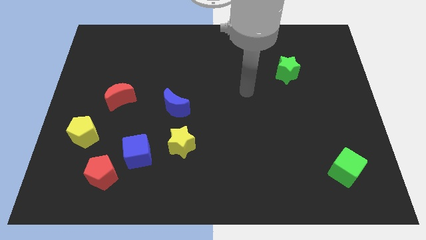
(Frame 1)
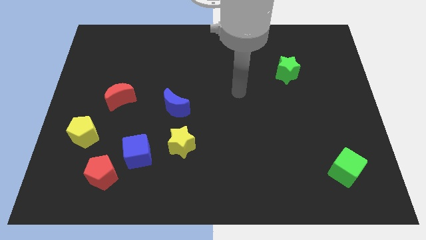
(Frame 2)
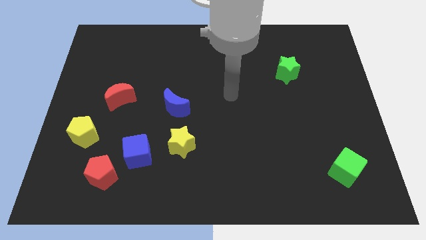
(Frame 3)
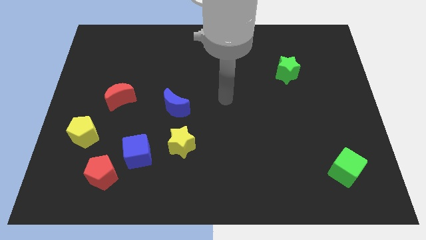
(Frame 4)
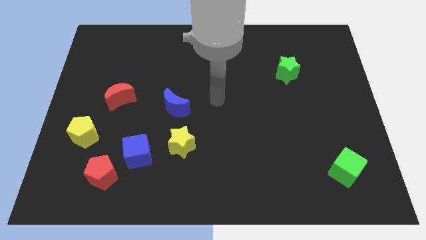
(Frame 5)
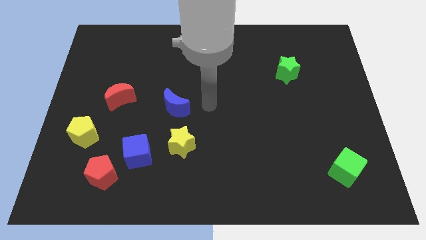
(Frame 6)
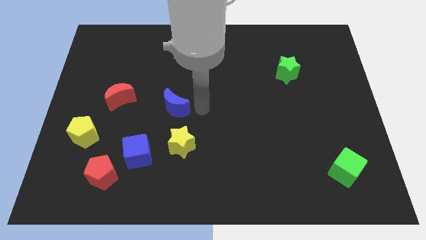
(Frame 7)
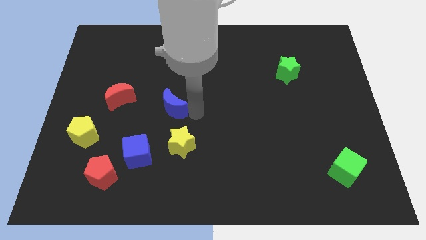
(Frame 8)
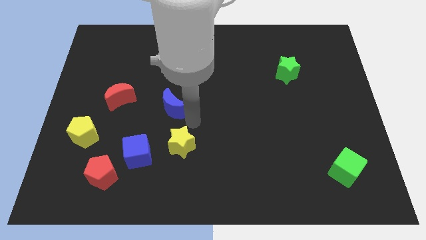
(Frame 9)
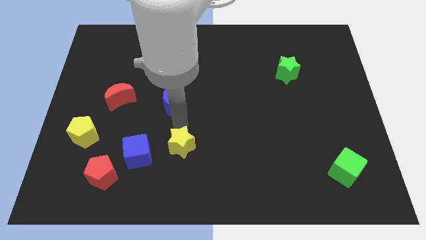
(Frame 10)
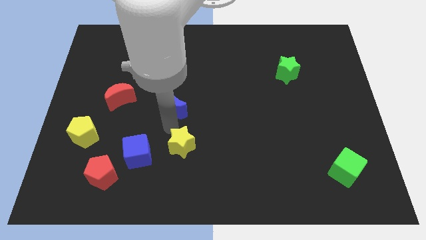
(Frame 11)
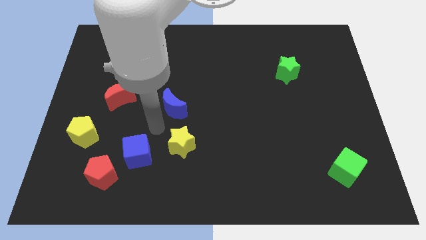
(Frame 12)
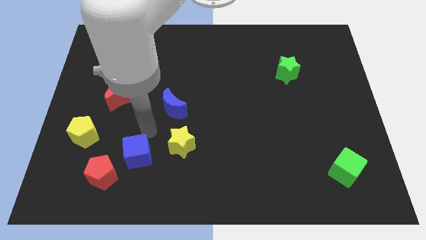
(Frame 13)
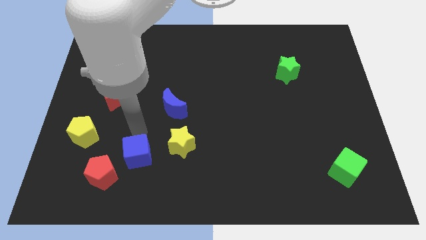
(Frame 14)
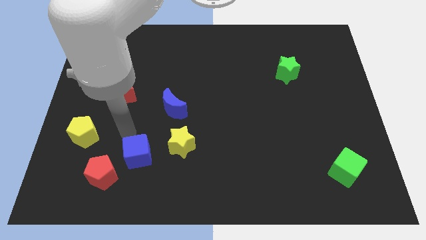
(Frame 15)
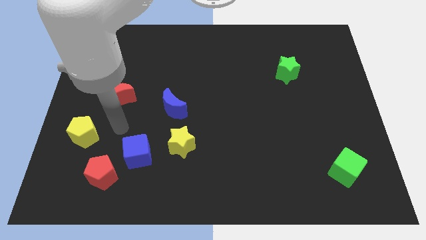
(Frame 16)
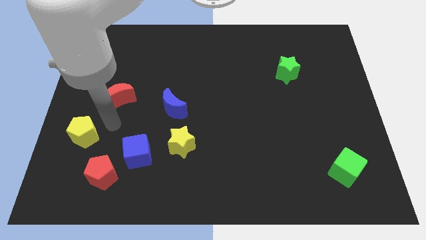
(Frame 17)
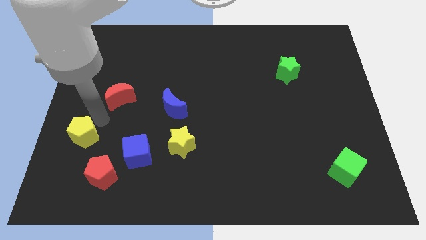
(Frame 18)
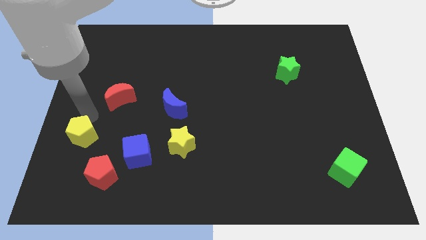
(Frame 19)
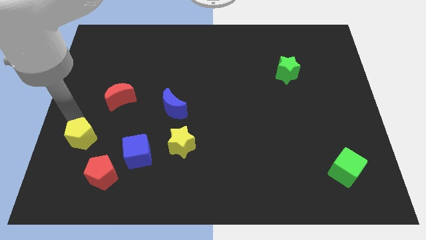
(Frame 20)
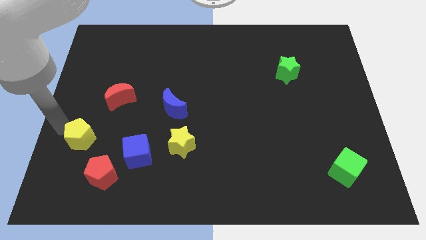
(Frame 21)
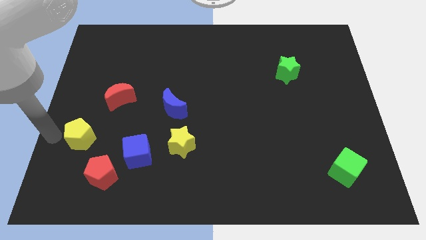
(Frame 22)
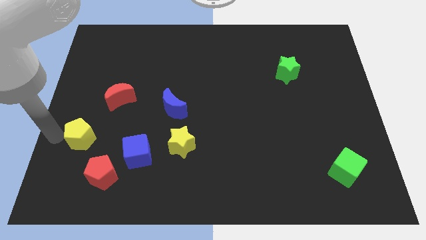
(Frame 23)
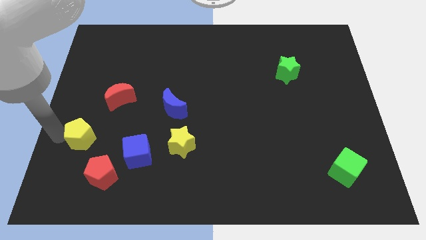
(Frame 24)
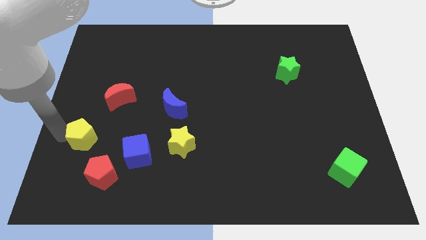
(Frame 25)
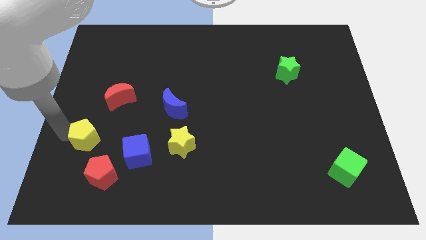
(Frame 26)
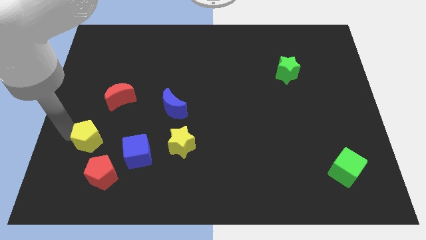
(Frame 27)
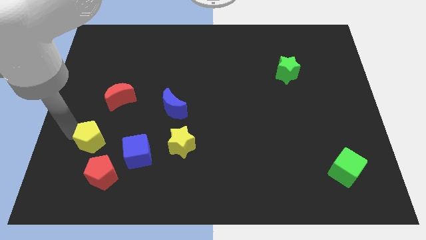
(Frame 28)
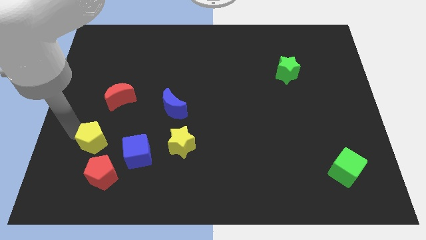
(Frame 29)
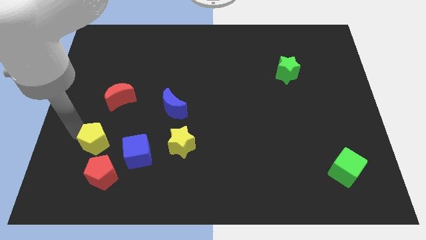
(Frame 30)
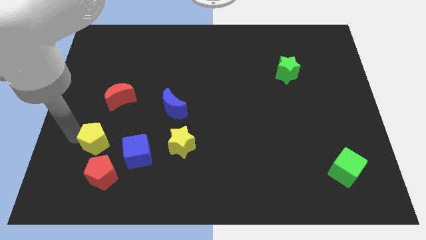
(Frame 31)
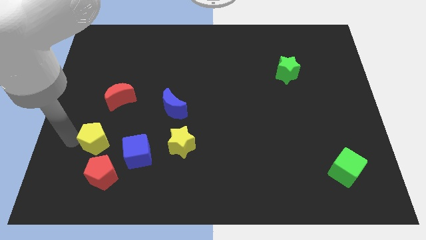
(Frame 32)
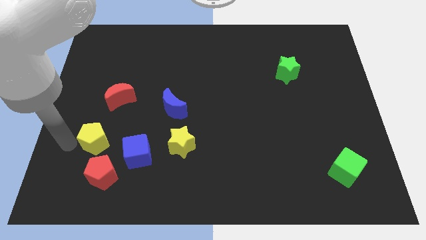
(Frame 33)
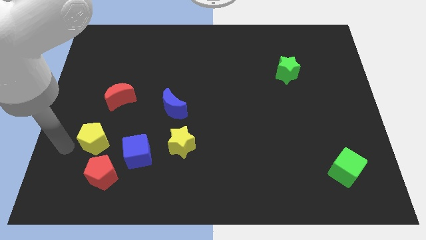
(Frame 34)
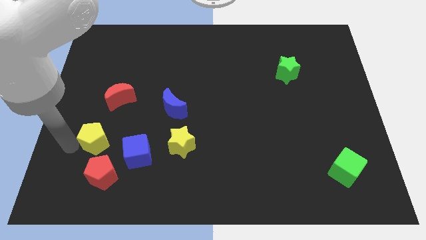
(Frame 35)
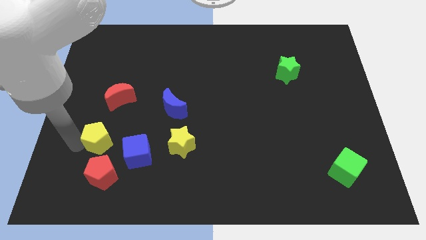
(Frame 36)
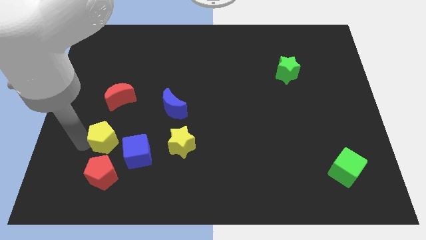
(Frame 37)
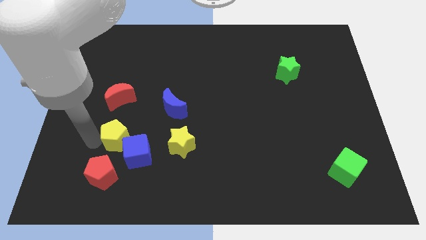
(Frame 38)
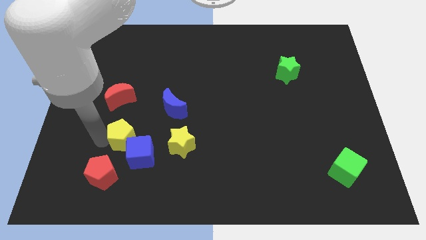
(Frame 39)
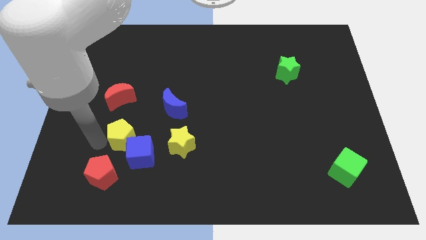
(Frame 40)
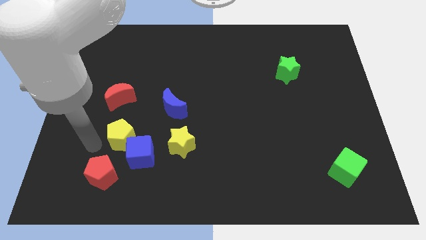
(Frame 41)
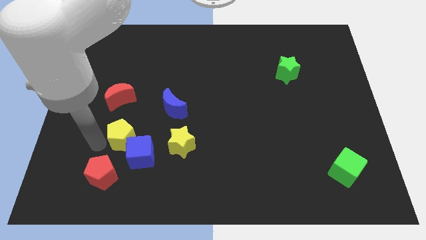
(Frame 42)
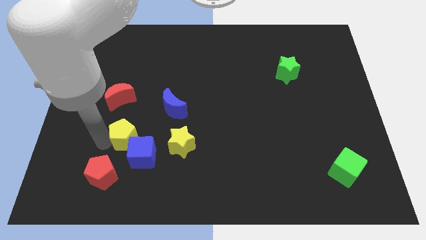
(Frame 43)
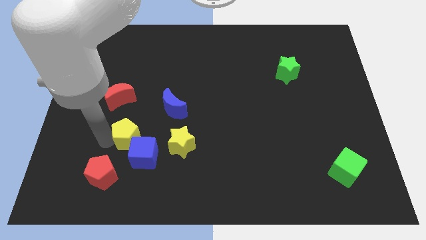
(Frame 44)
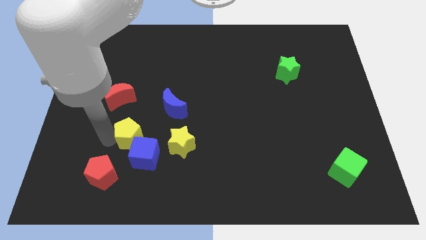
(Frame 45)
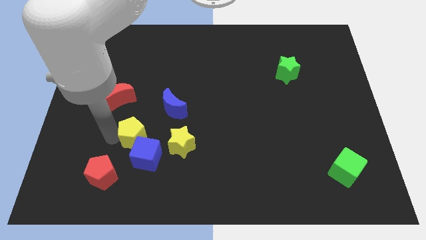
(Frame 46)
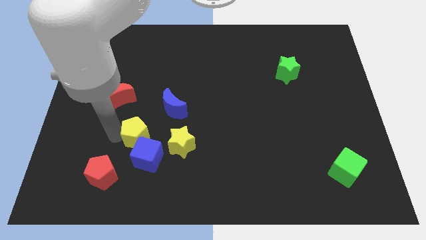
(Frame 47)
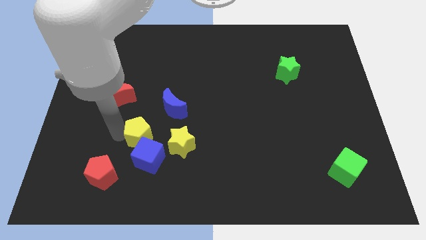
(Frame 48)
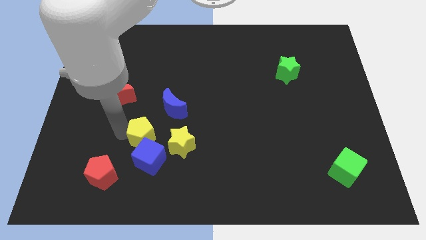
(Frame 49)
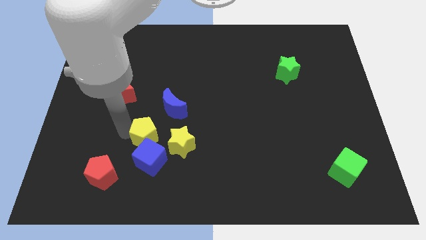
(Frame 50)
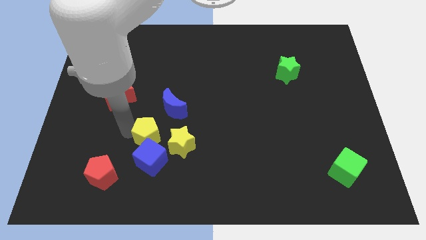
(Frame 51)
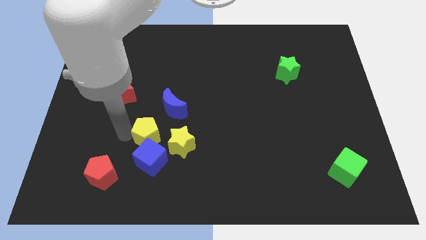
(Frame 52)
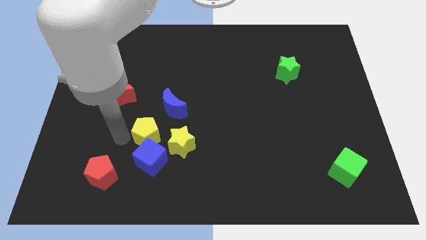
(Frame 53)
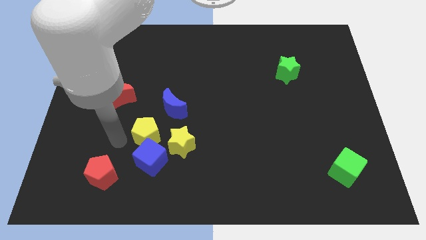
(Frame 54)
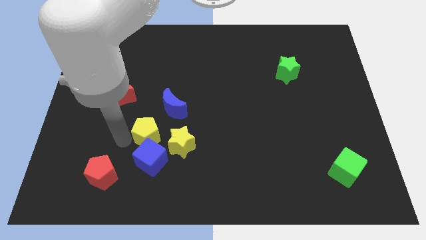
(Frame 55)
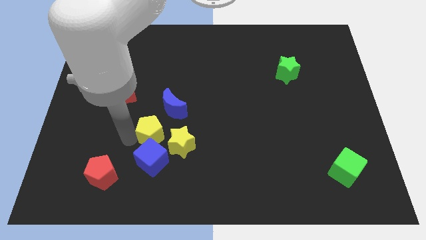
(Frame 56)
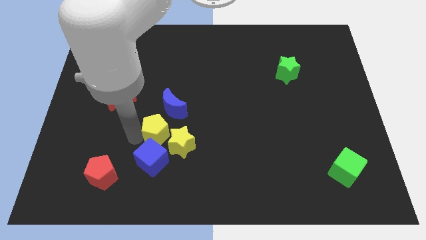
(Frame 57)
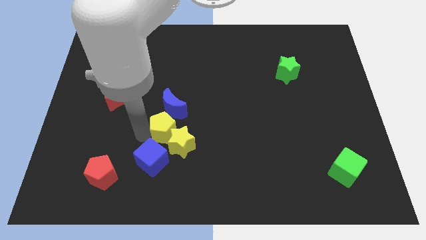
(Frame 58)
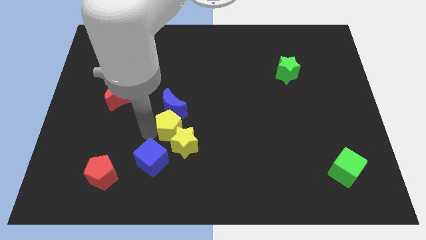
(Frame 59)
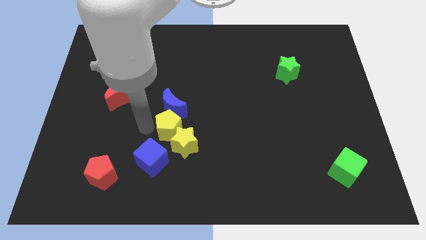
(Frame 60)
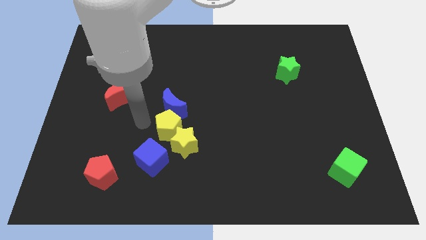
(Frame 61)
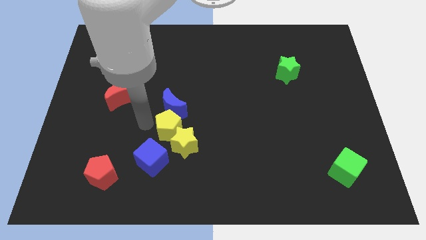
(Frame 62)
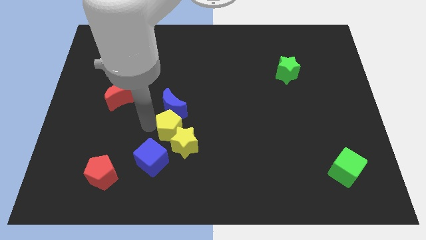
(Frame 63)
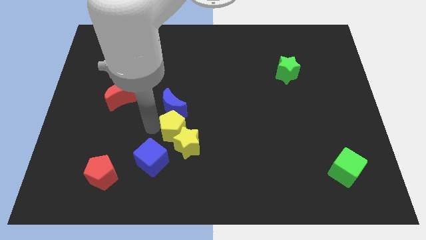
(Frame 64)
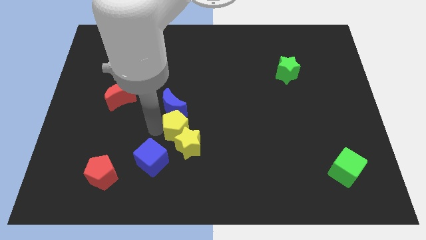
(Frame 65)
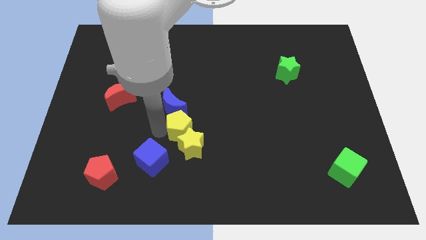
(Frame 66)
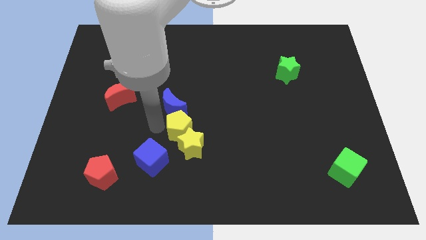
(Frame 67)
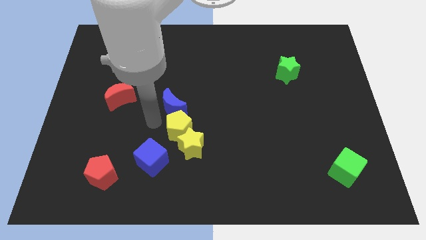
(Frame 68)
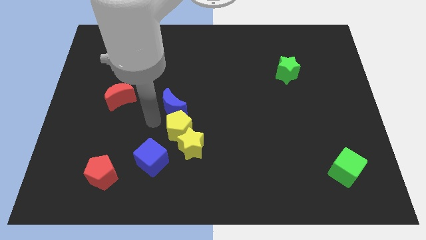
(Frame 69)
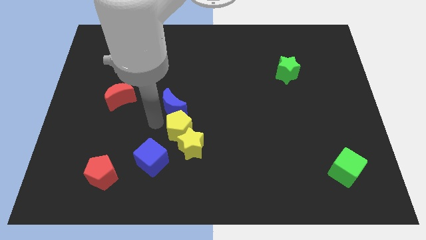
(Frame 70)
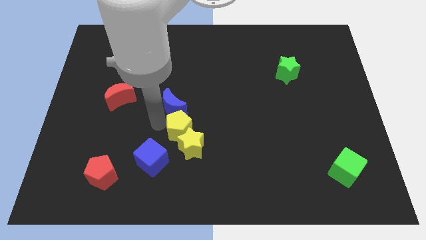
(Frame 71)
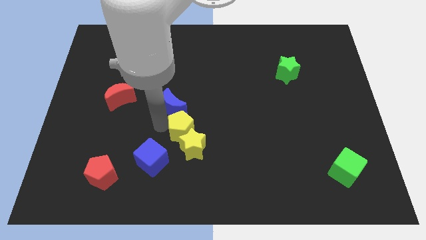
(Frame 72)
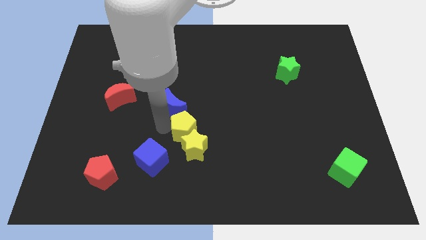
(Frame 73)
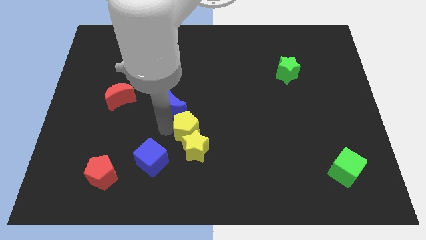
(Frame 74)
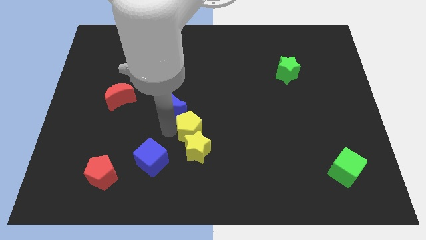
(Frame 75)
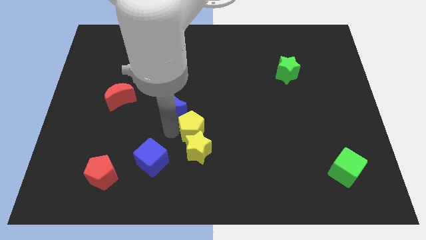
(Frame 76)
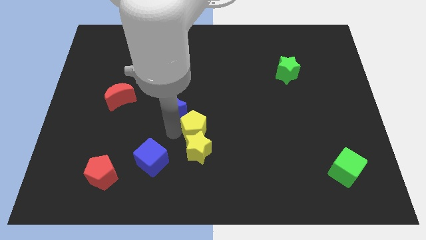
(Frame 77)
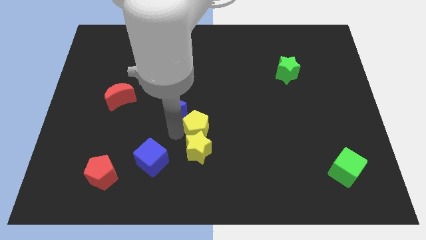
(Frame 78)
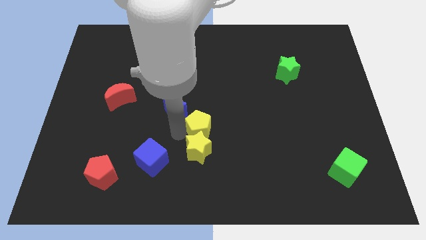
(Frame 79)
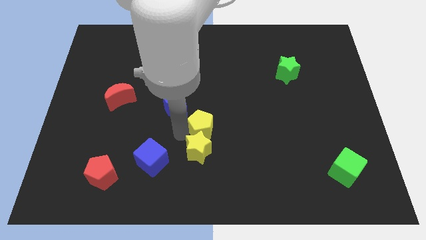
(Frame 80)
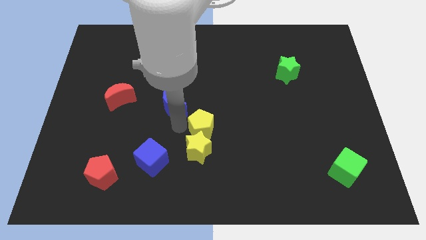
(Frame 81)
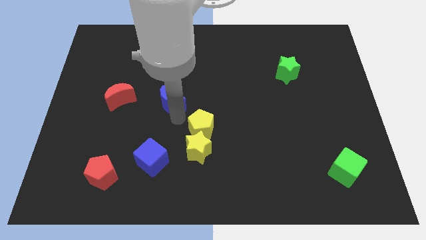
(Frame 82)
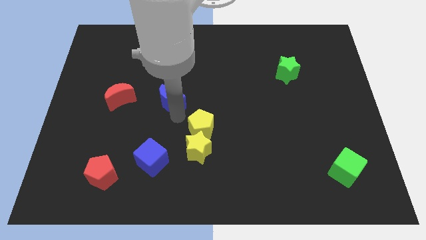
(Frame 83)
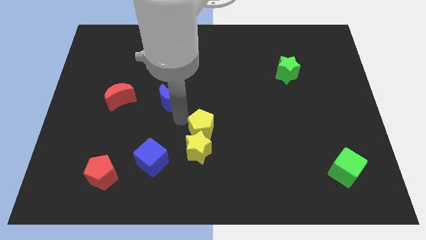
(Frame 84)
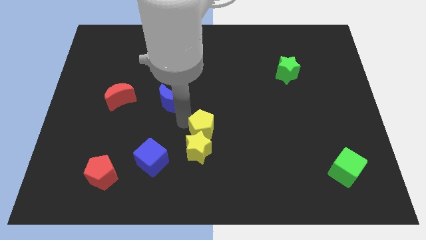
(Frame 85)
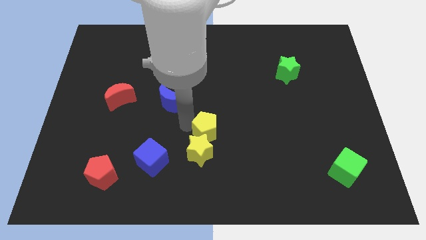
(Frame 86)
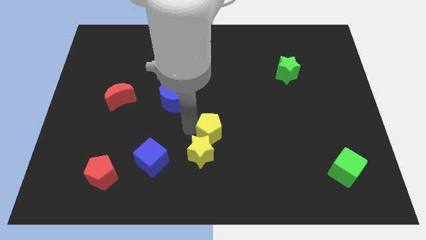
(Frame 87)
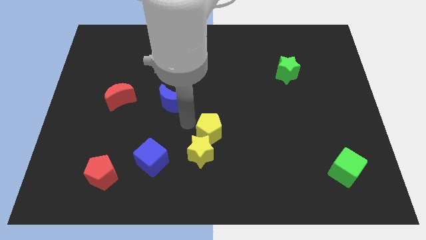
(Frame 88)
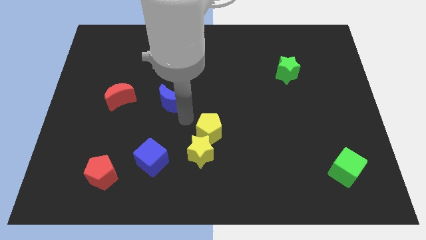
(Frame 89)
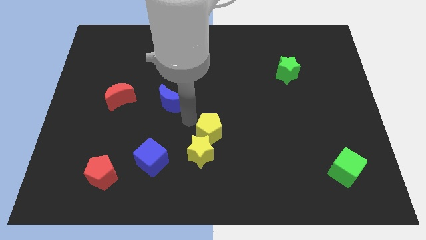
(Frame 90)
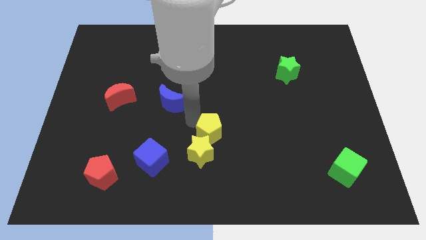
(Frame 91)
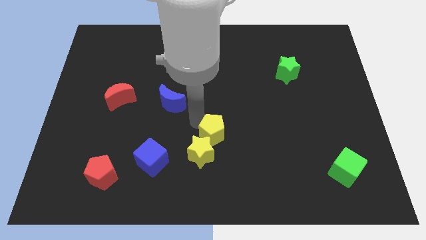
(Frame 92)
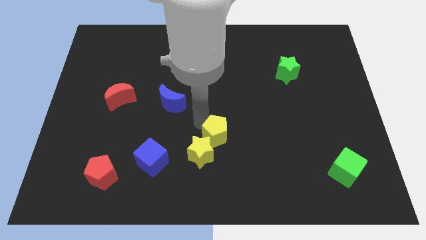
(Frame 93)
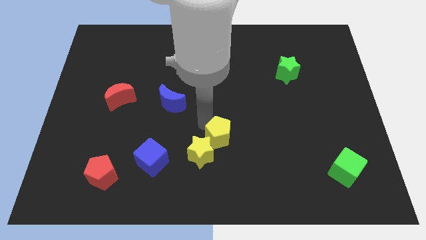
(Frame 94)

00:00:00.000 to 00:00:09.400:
move the yellow pentagon to the right side of the yellow star
